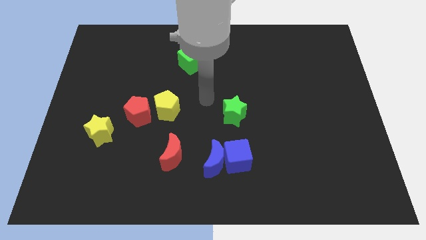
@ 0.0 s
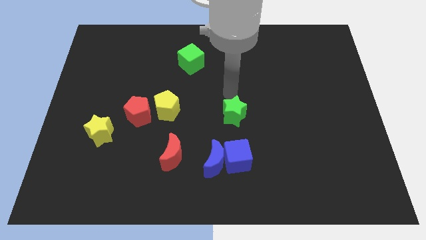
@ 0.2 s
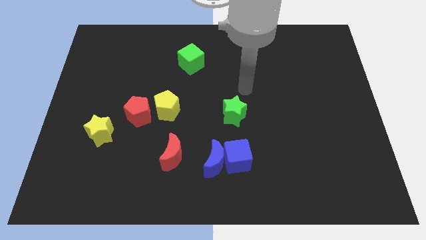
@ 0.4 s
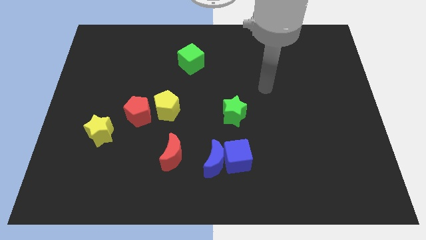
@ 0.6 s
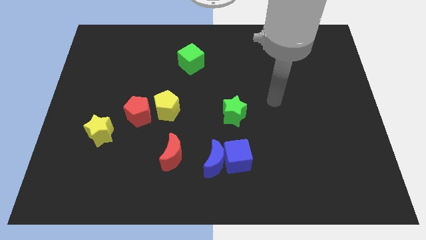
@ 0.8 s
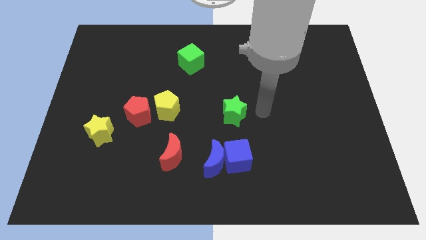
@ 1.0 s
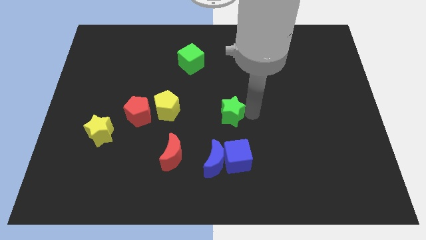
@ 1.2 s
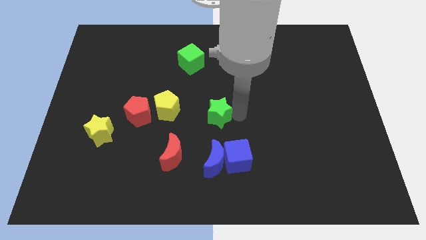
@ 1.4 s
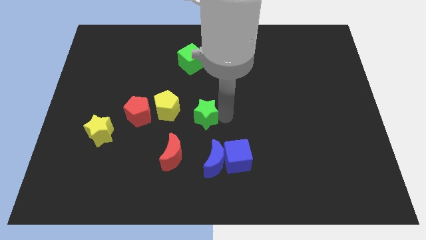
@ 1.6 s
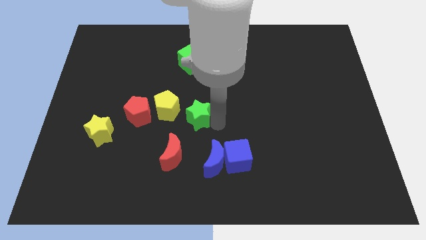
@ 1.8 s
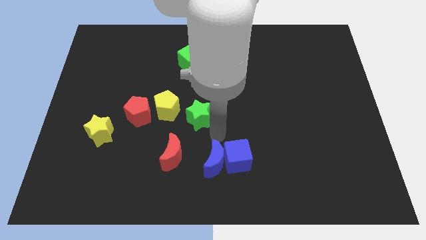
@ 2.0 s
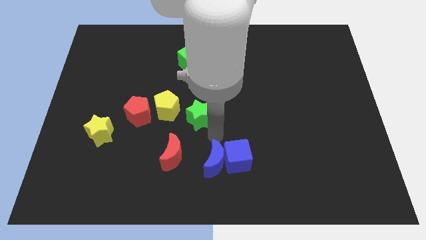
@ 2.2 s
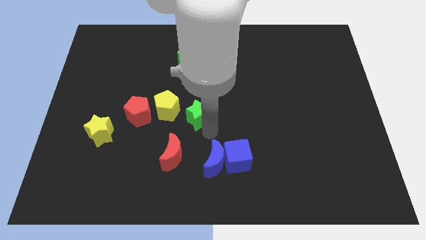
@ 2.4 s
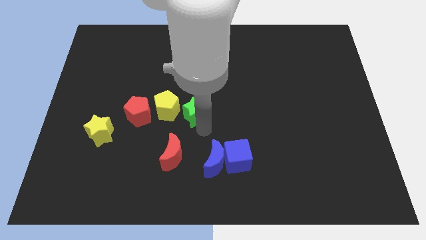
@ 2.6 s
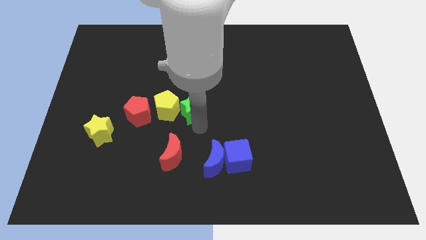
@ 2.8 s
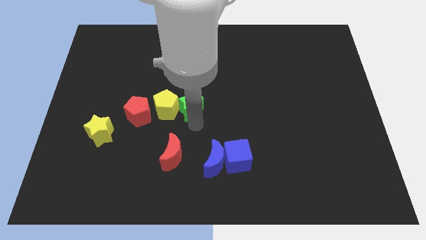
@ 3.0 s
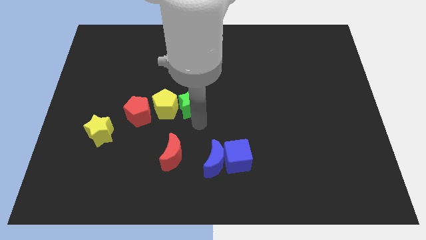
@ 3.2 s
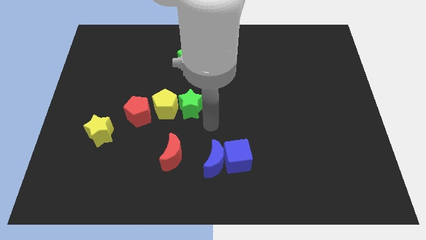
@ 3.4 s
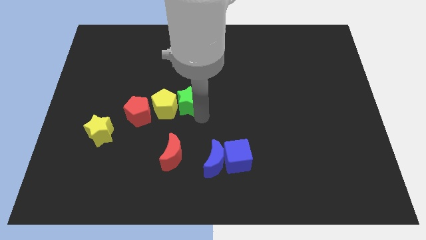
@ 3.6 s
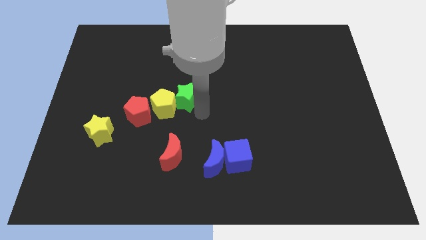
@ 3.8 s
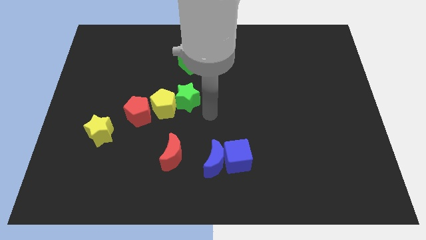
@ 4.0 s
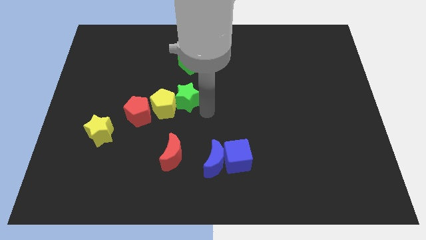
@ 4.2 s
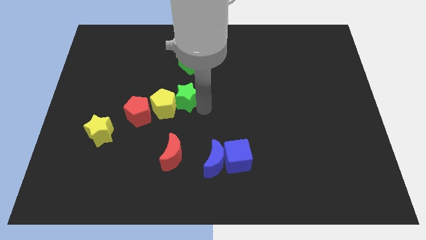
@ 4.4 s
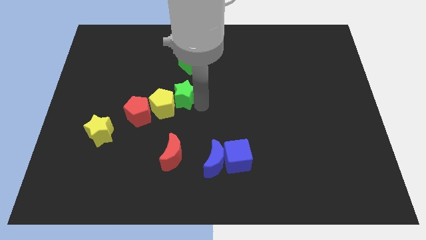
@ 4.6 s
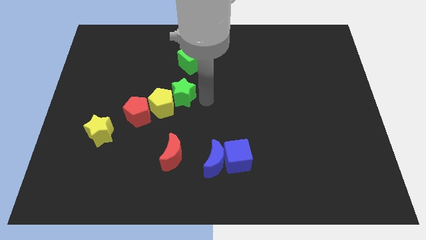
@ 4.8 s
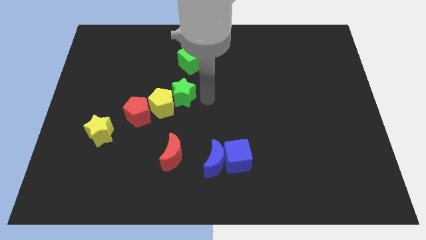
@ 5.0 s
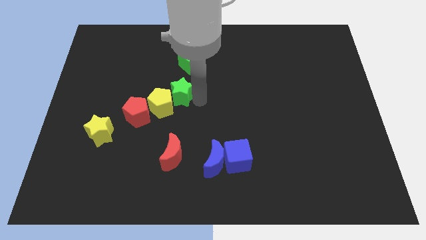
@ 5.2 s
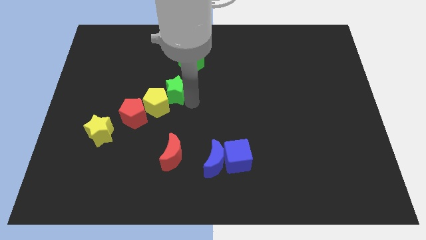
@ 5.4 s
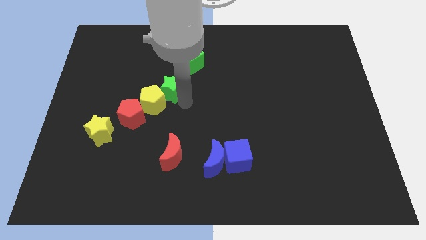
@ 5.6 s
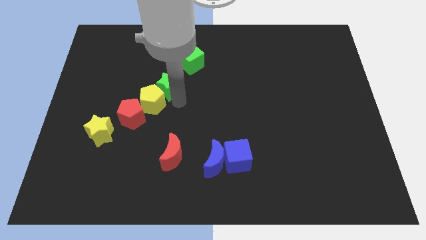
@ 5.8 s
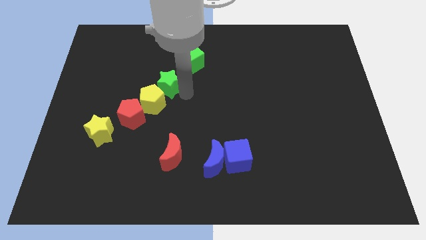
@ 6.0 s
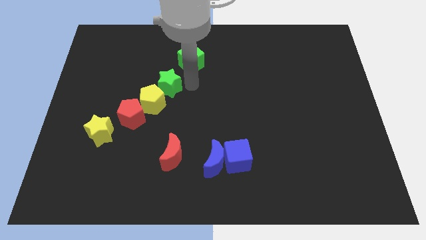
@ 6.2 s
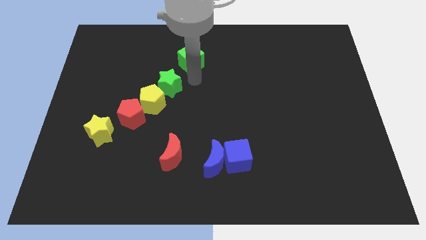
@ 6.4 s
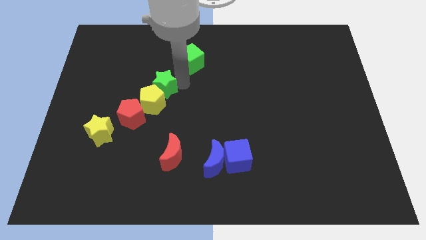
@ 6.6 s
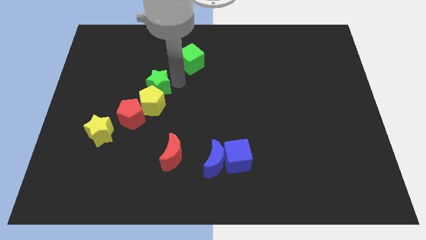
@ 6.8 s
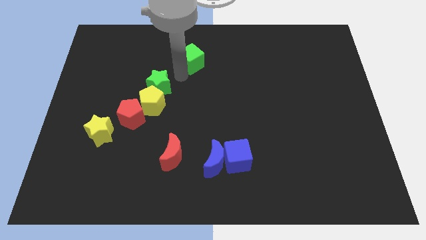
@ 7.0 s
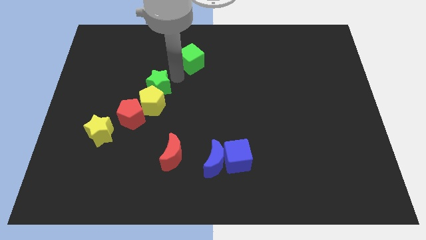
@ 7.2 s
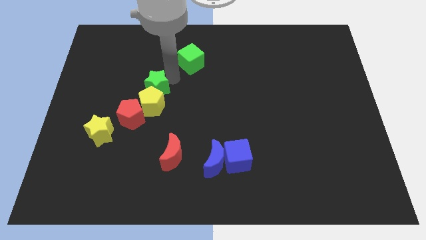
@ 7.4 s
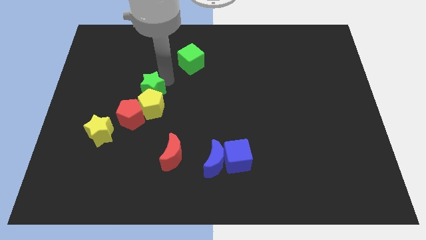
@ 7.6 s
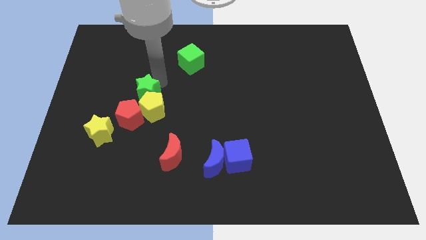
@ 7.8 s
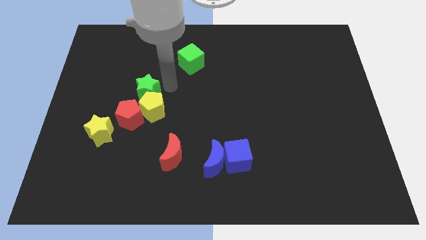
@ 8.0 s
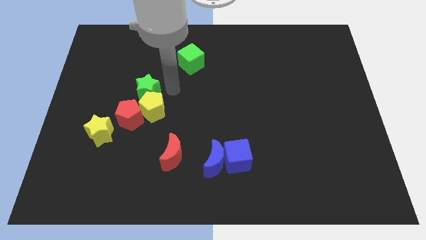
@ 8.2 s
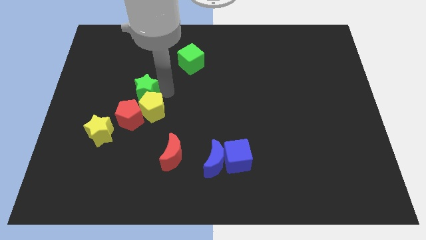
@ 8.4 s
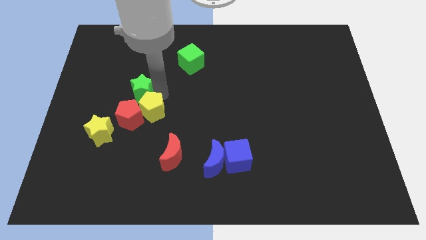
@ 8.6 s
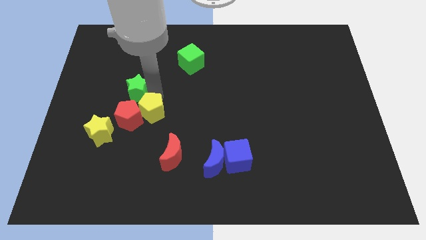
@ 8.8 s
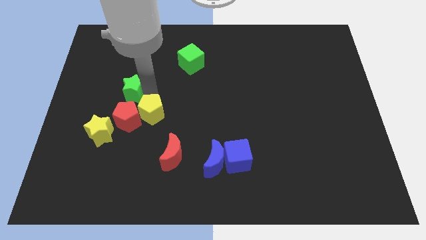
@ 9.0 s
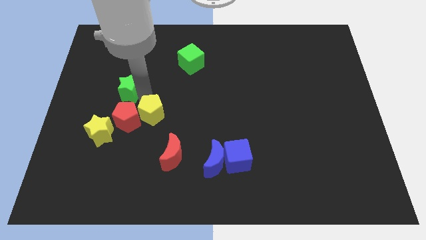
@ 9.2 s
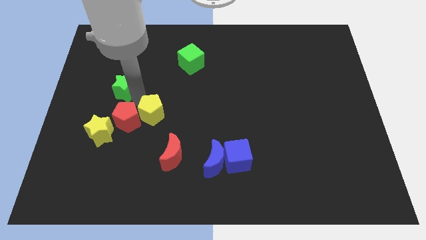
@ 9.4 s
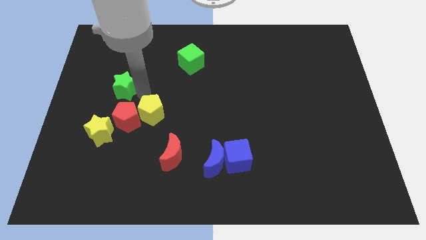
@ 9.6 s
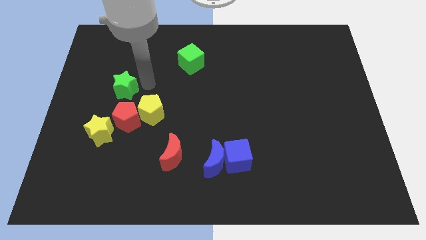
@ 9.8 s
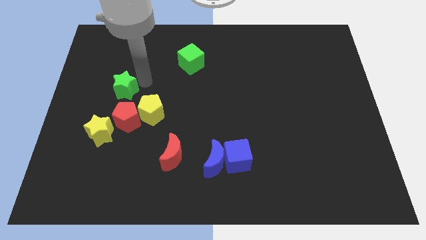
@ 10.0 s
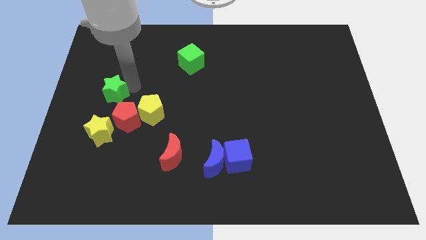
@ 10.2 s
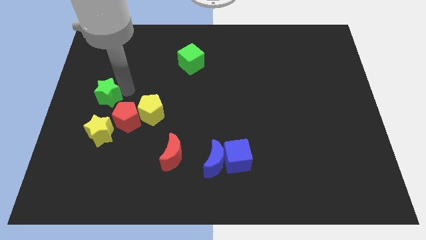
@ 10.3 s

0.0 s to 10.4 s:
push the green star to the left side
